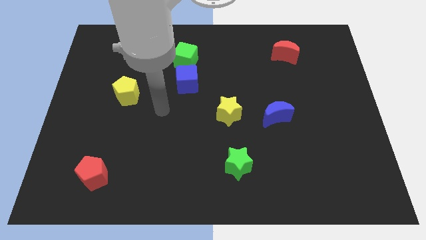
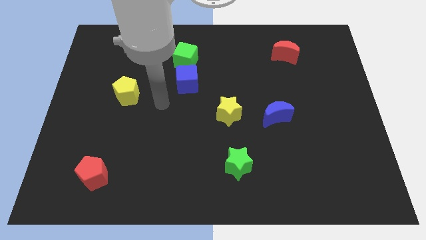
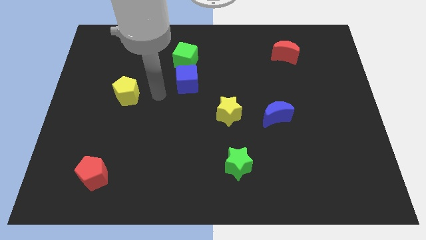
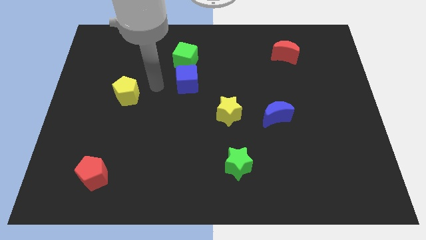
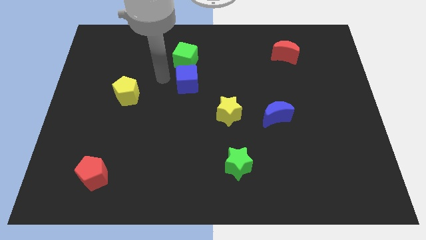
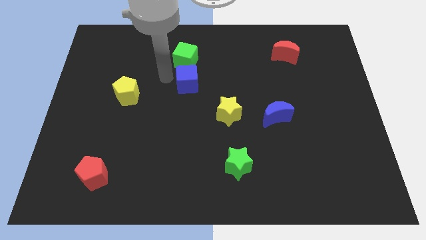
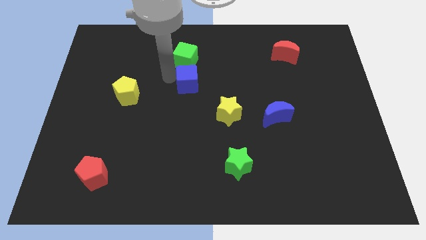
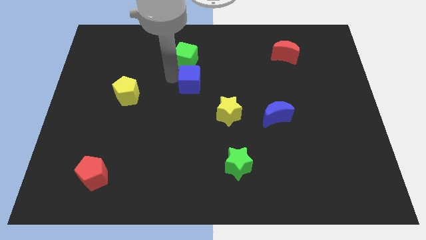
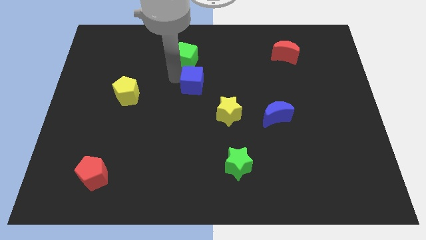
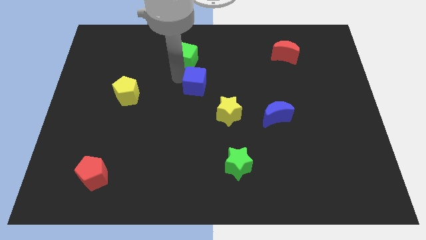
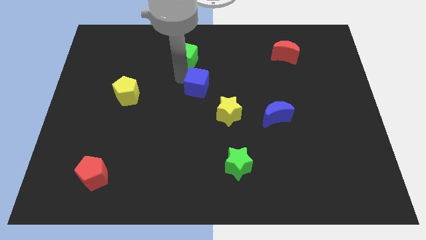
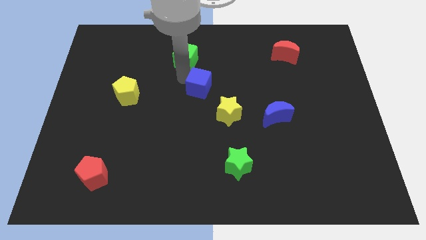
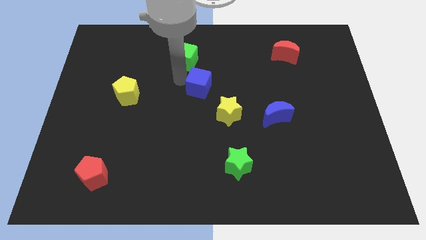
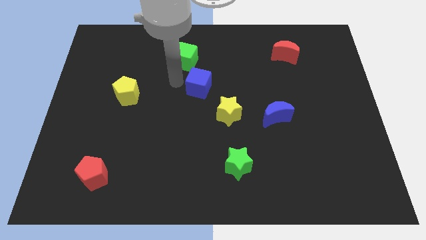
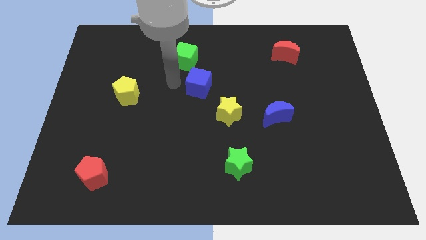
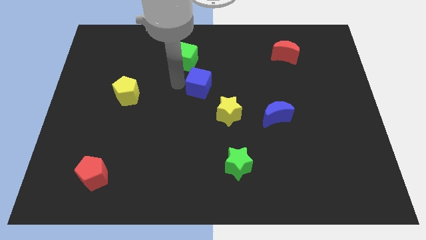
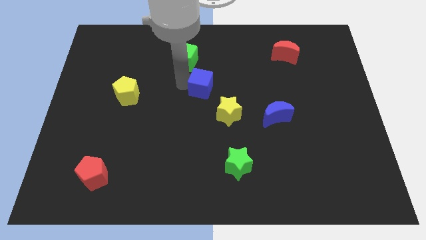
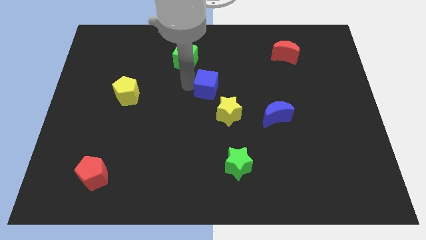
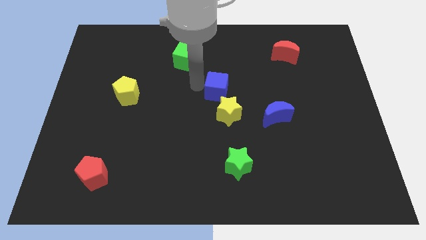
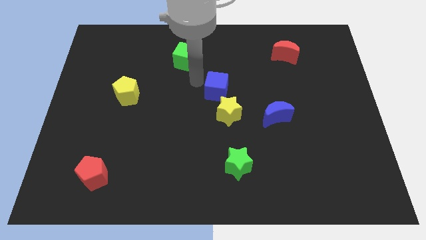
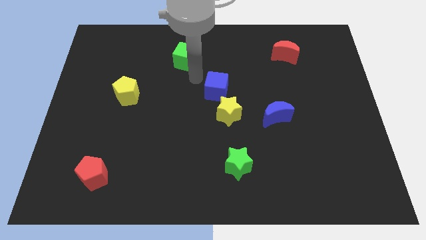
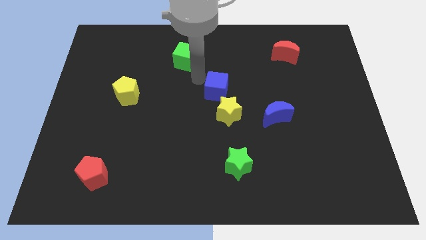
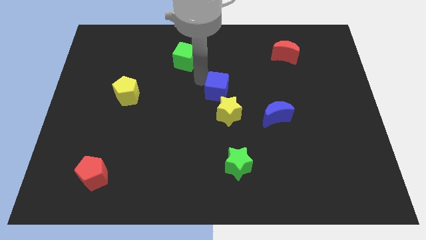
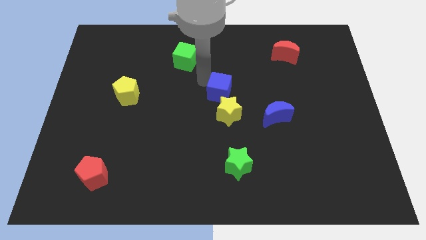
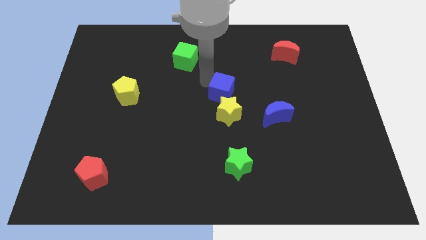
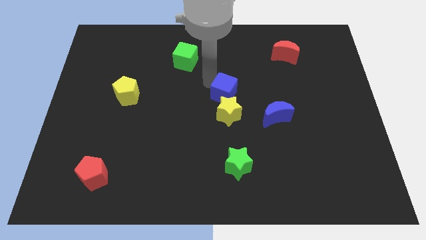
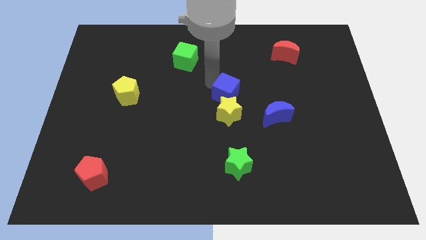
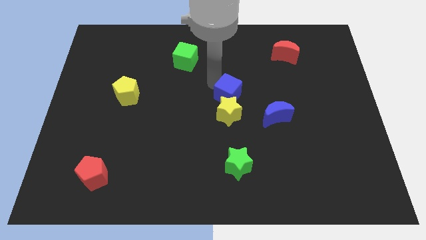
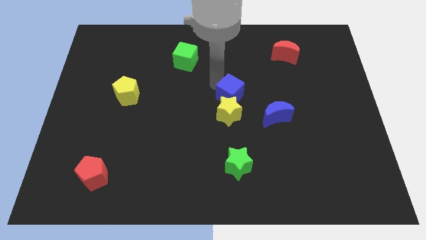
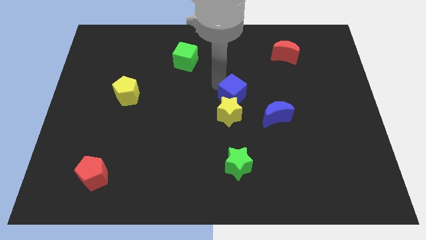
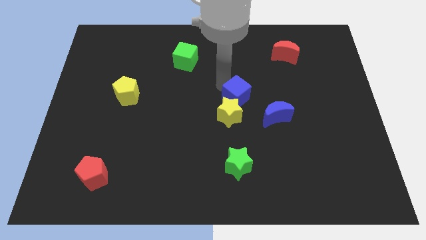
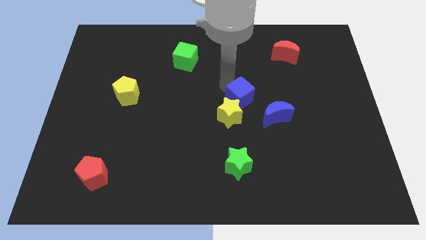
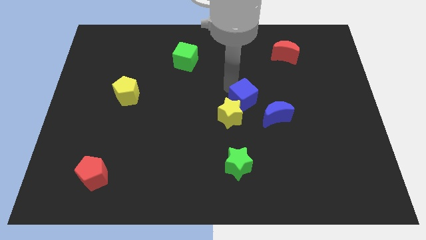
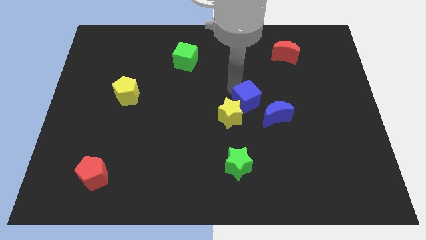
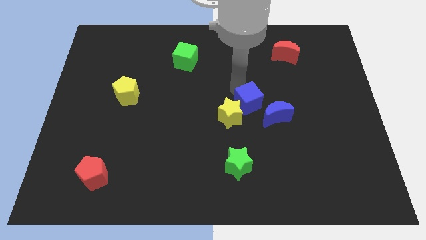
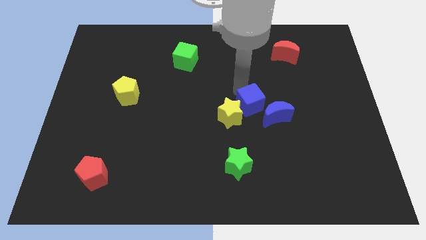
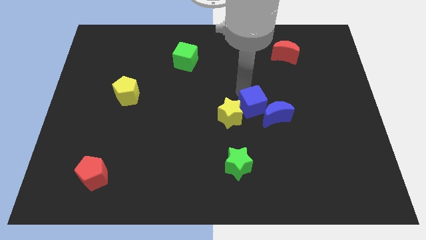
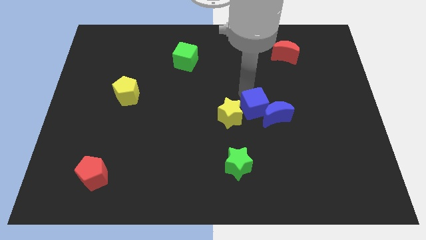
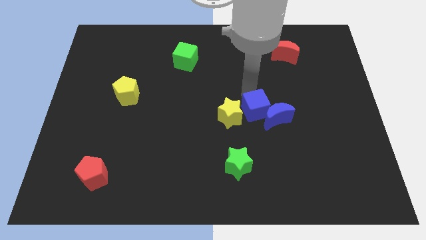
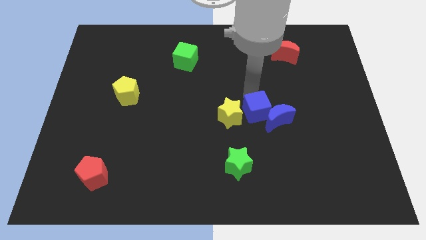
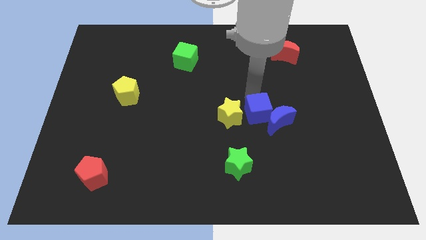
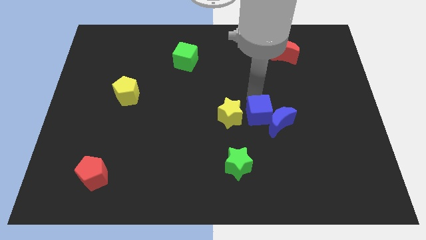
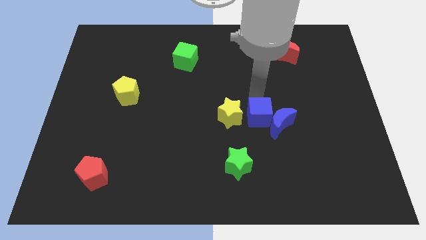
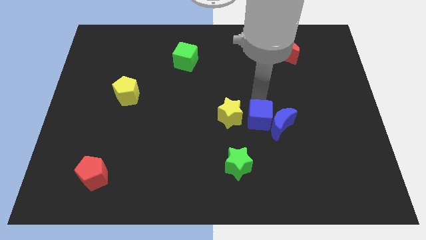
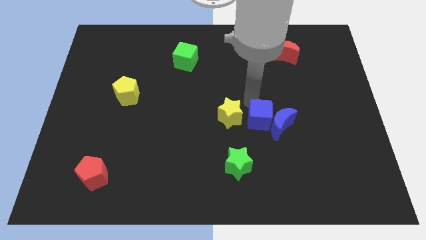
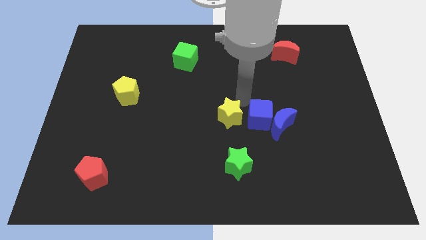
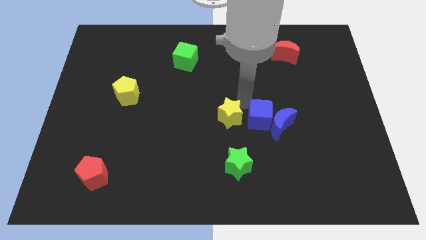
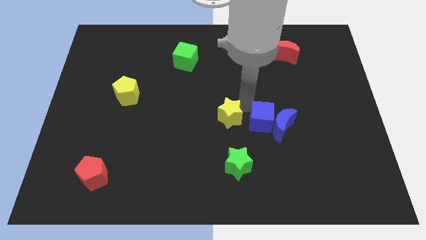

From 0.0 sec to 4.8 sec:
slide the blue cube down and to the right diagonally

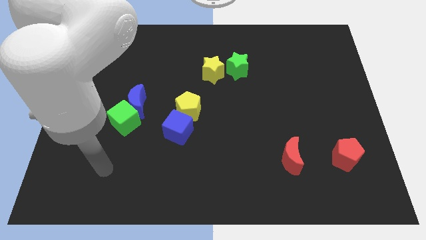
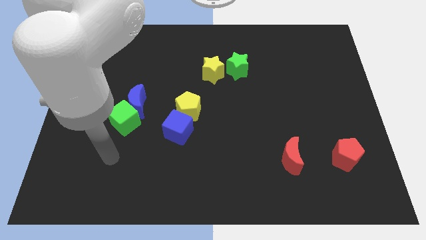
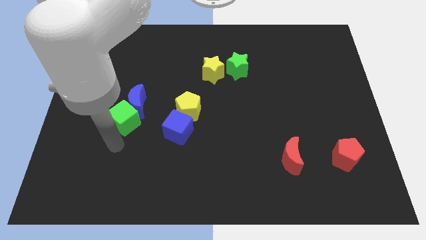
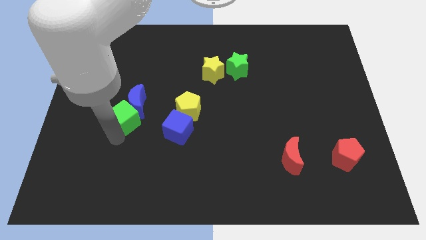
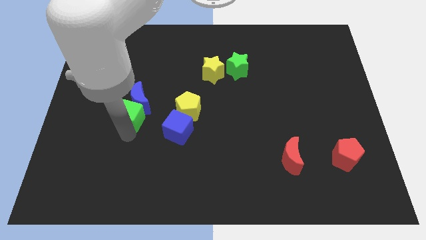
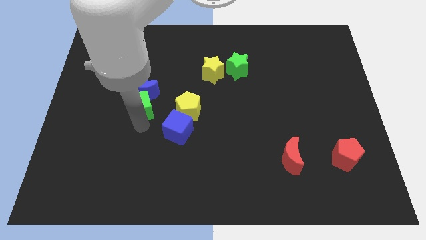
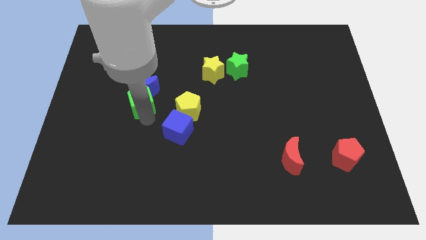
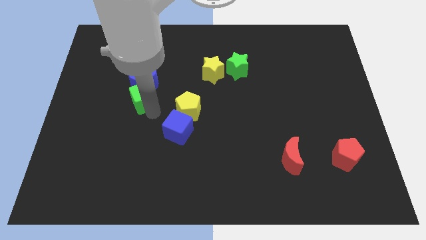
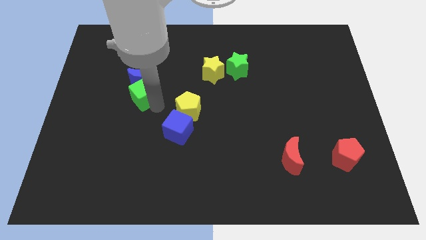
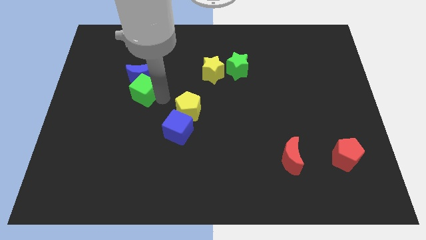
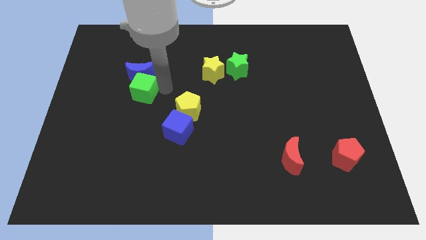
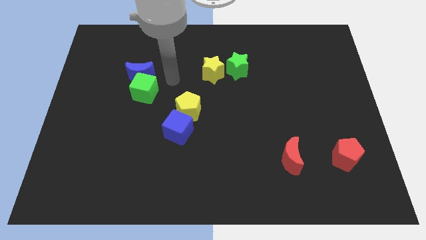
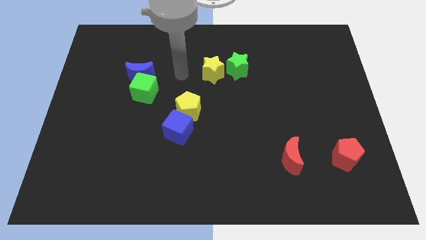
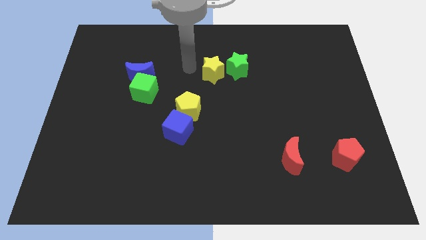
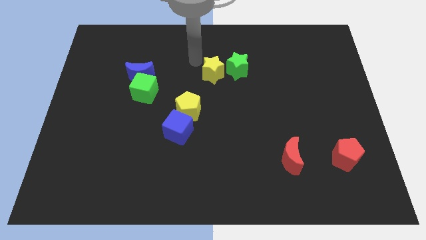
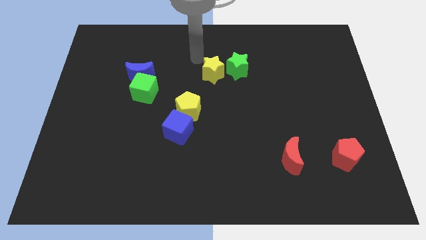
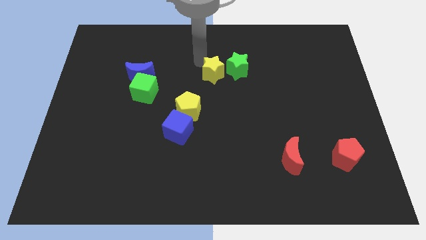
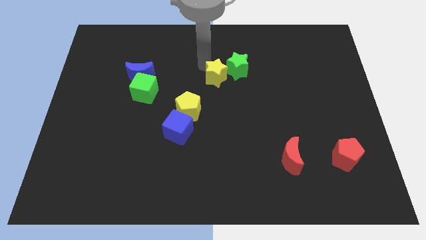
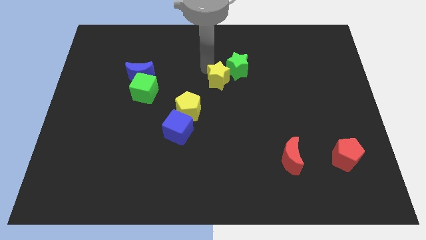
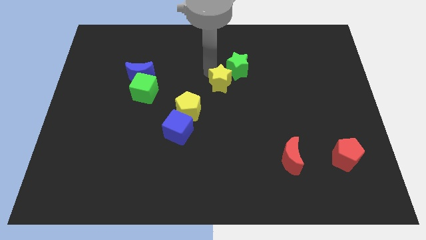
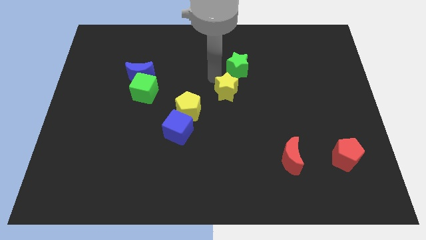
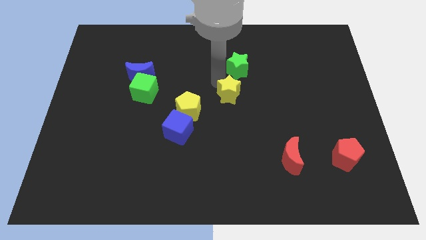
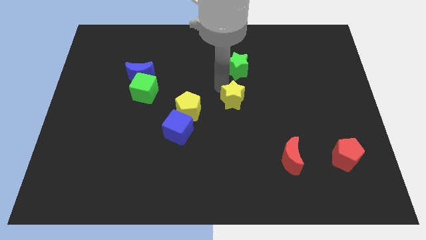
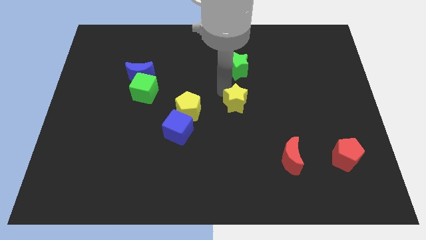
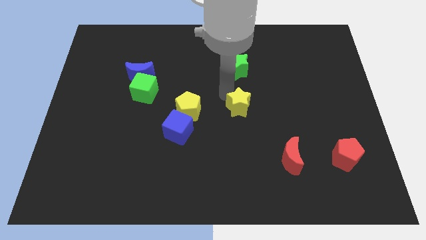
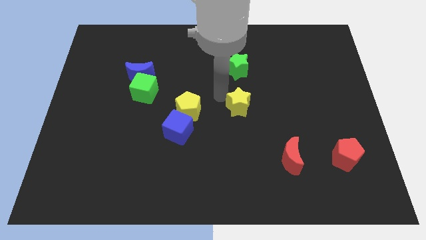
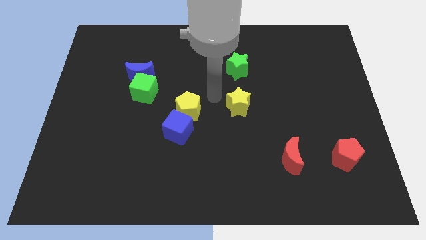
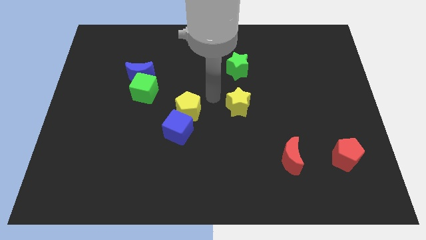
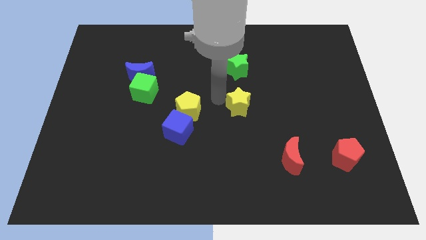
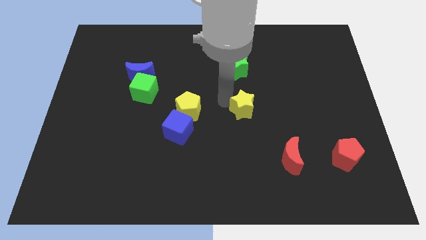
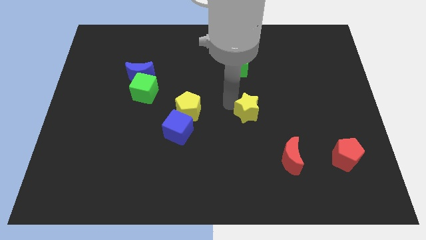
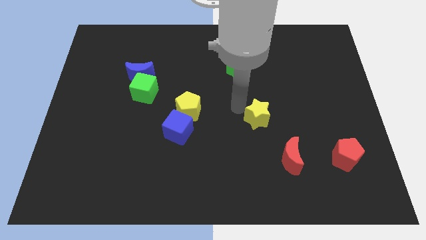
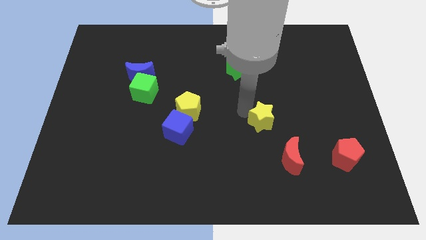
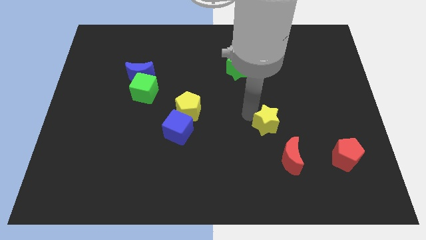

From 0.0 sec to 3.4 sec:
slide the yellow star downwards and right
